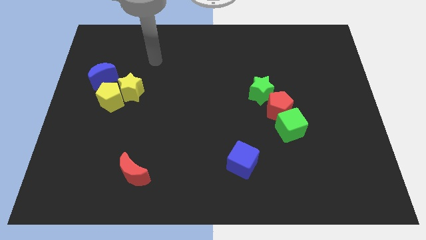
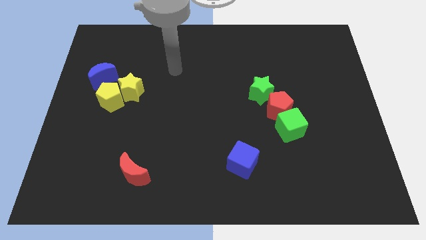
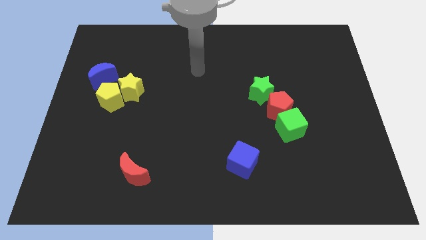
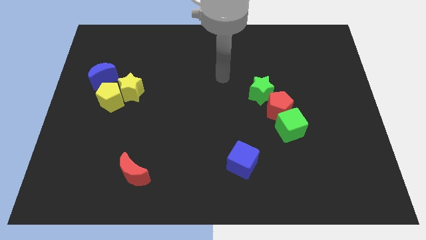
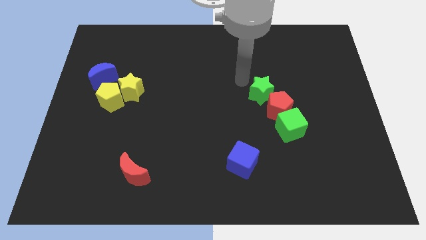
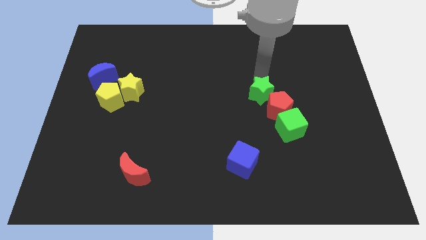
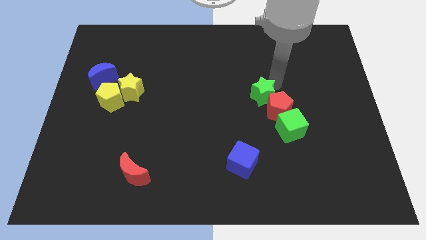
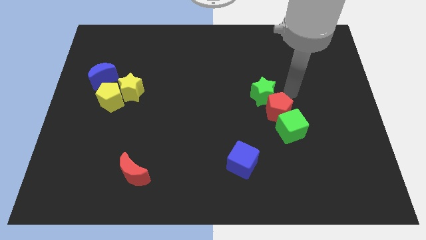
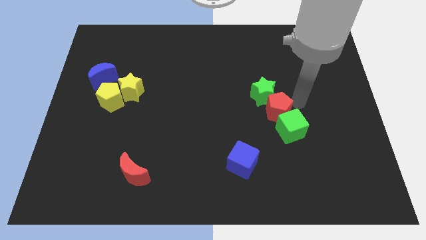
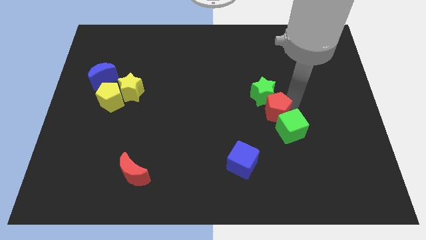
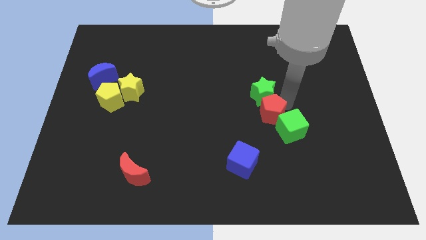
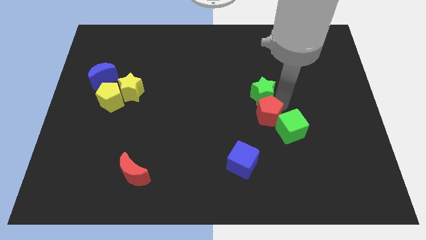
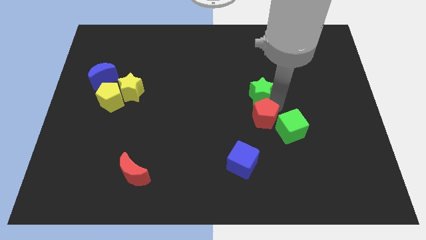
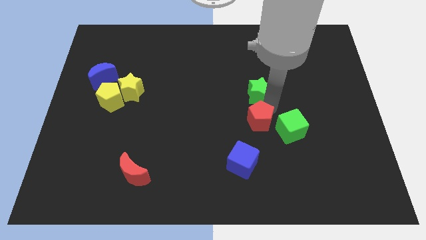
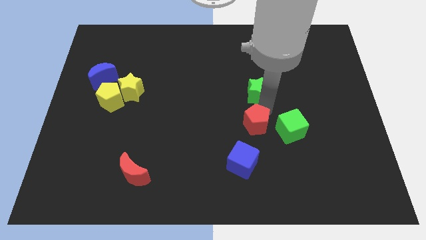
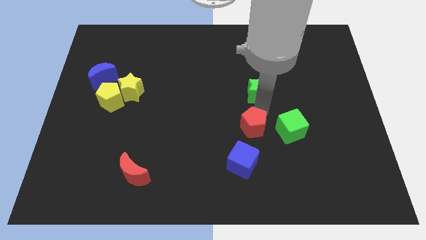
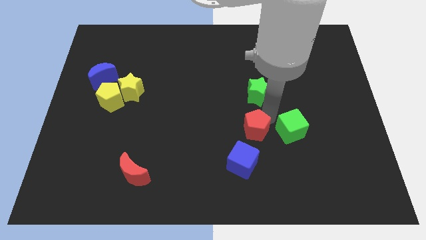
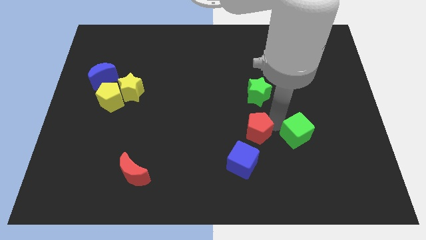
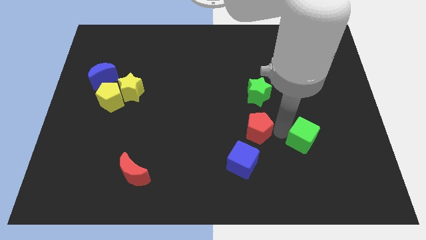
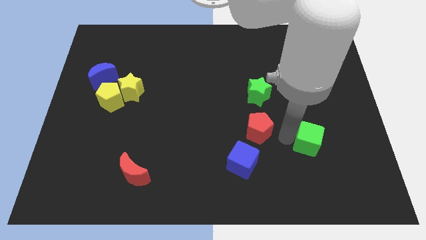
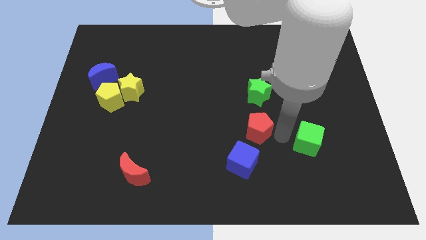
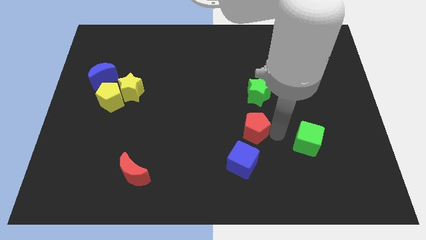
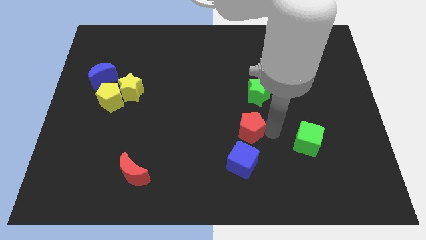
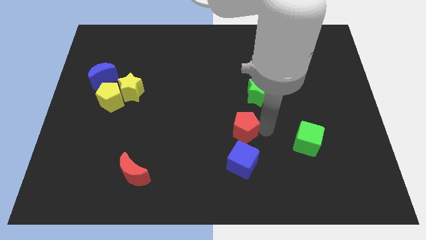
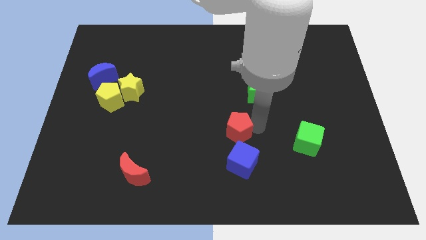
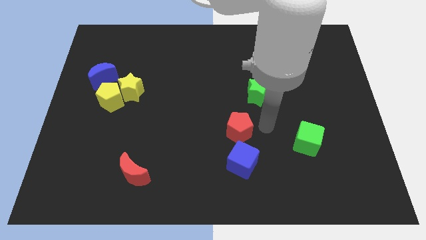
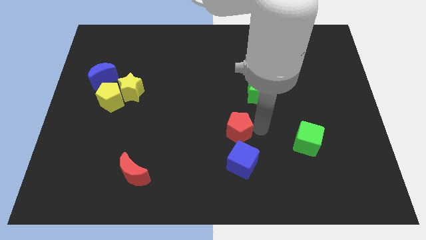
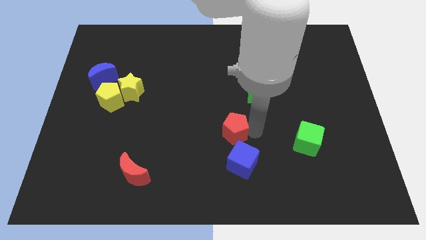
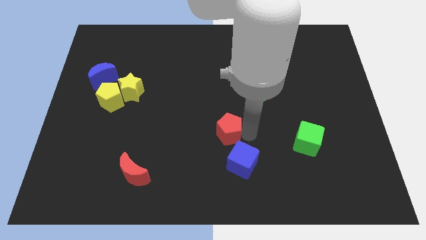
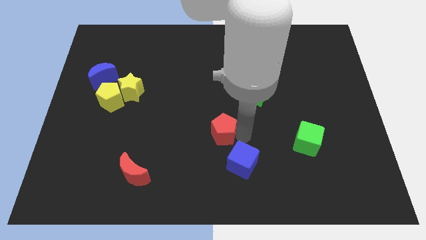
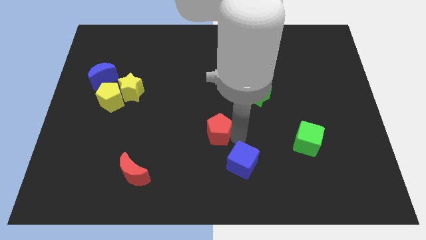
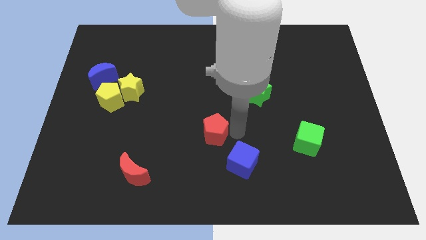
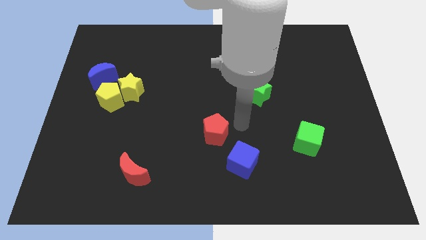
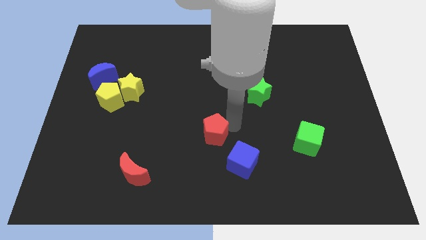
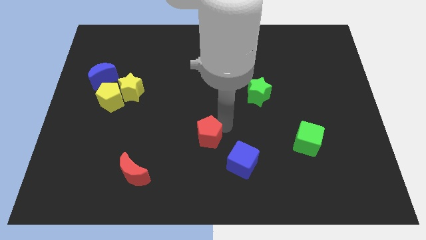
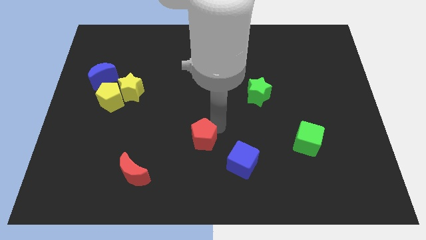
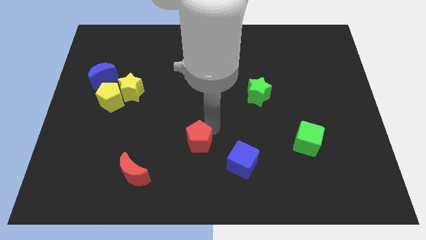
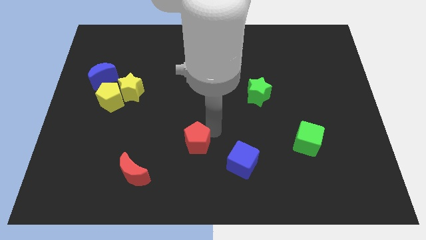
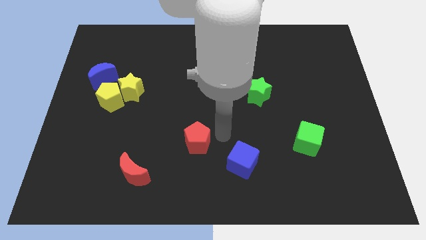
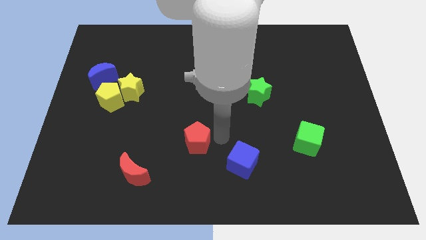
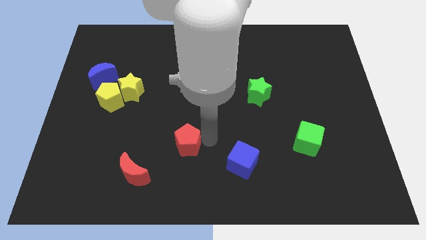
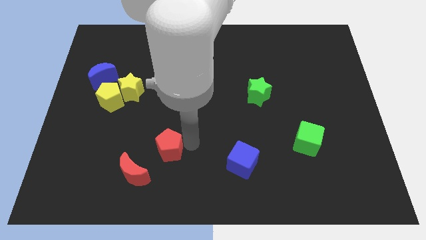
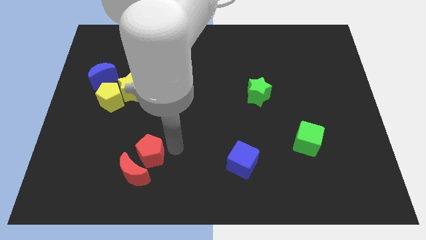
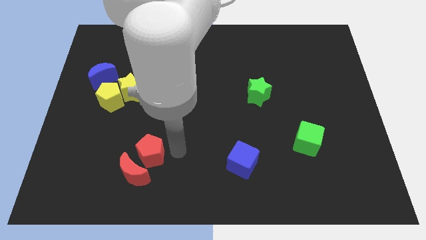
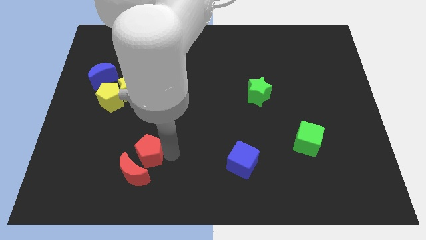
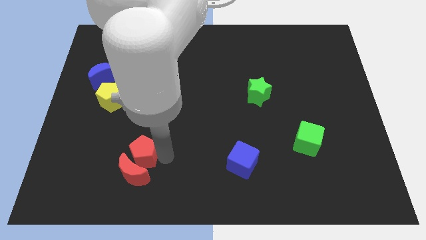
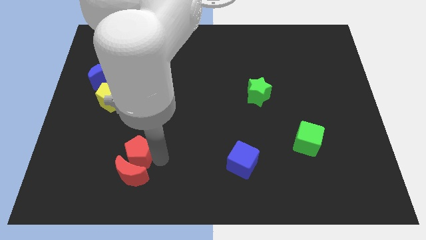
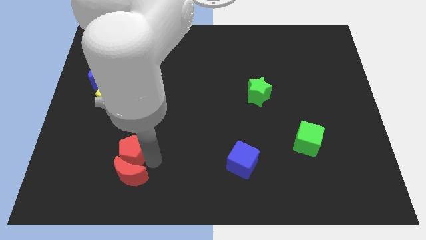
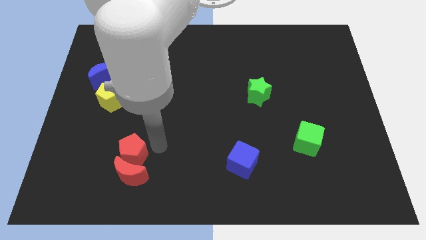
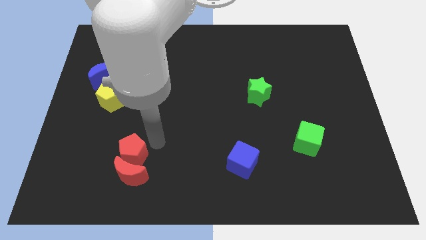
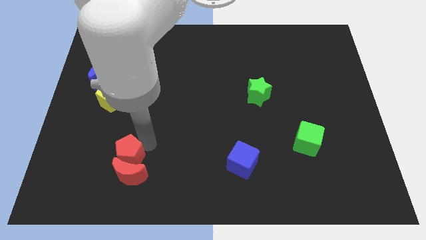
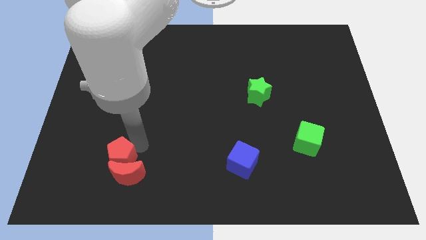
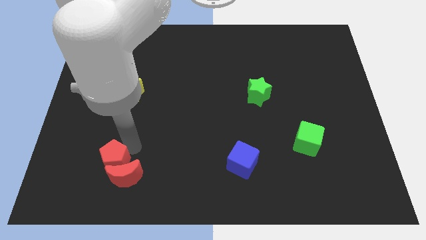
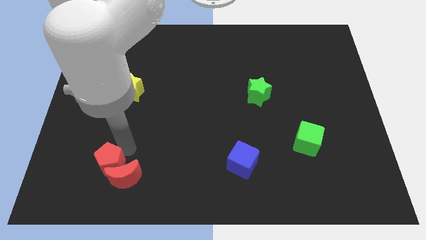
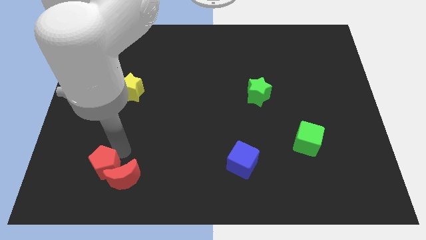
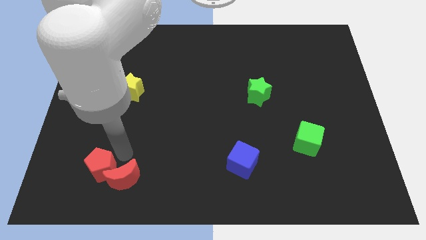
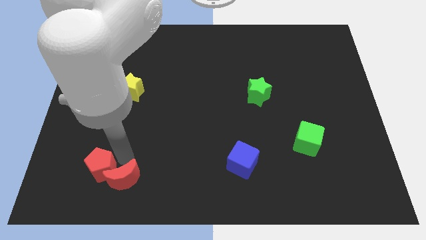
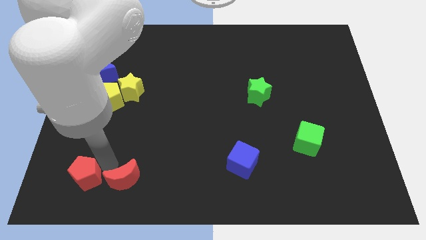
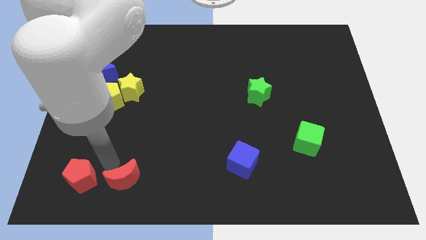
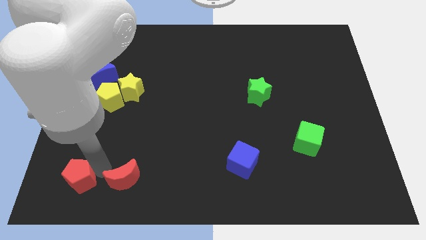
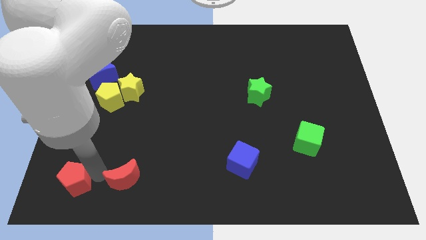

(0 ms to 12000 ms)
slide the red pentagon to the bottom left corner
